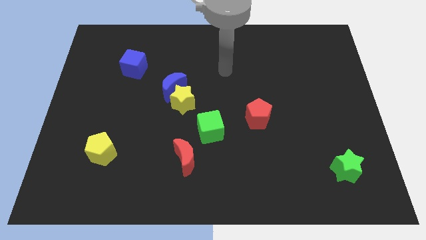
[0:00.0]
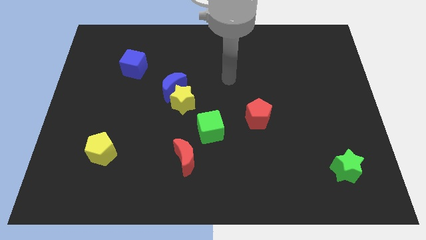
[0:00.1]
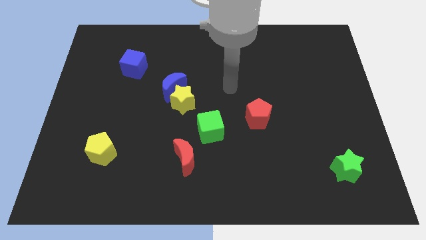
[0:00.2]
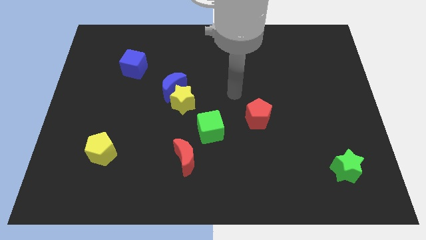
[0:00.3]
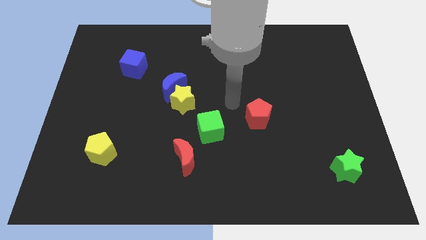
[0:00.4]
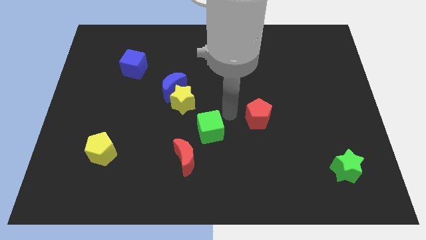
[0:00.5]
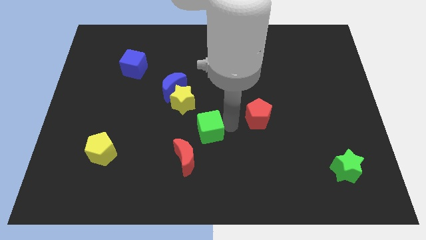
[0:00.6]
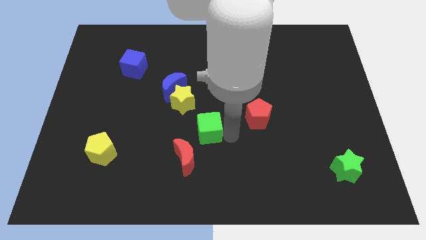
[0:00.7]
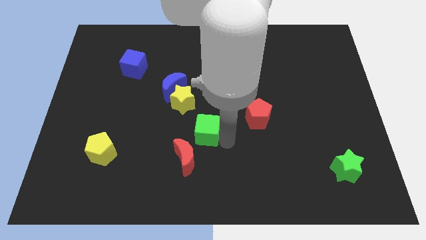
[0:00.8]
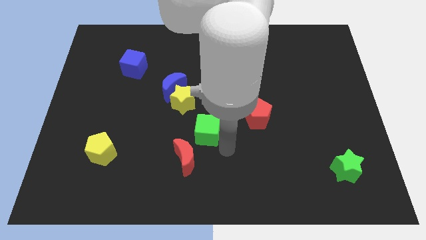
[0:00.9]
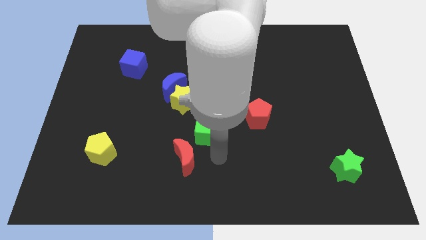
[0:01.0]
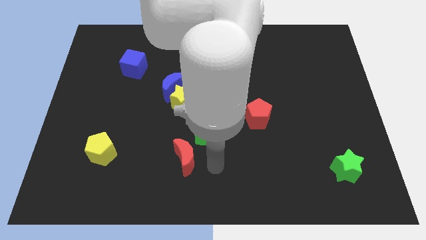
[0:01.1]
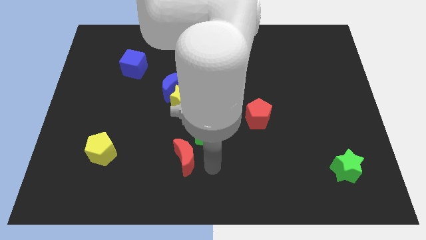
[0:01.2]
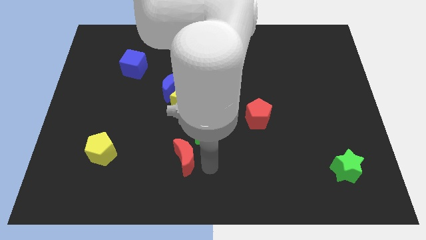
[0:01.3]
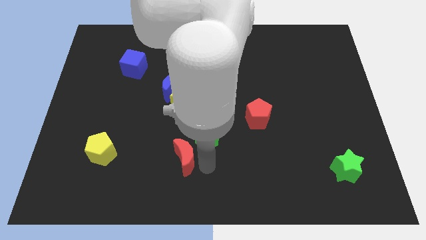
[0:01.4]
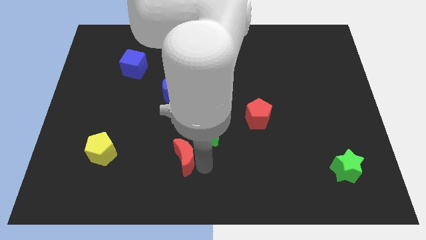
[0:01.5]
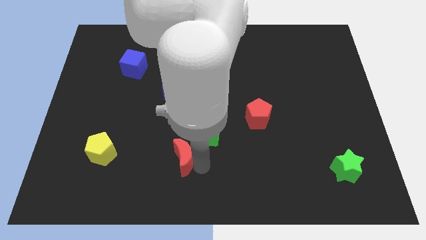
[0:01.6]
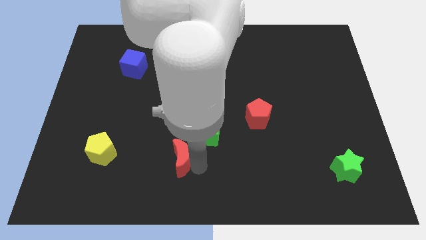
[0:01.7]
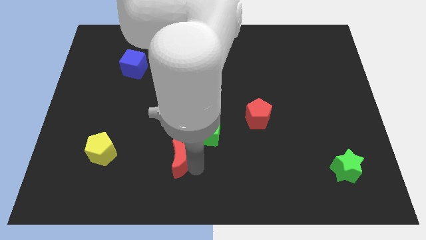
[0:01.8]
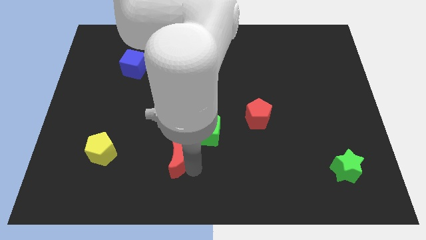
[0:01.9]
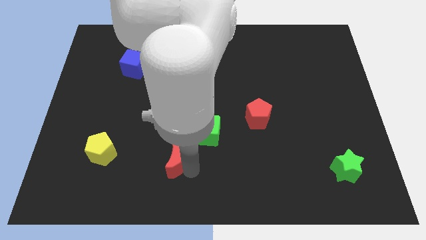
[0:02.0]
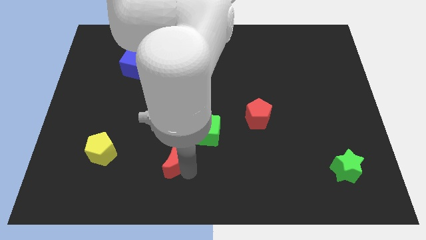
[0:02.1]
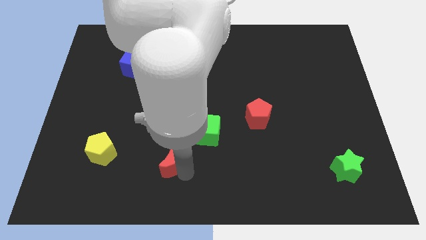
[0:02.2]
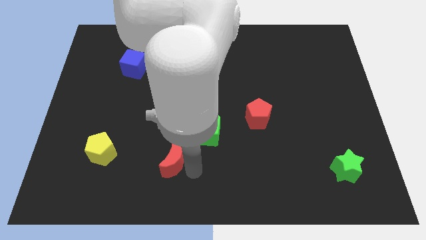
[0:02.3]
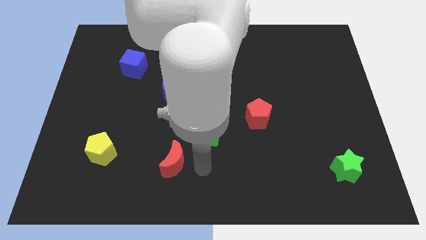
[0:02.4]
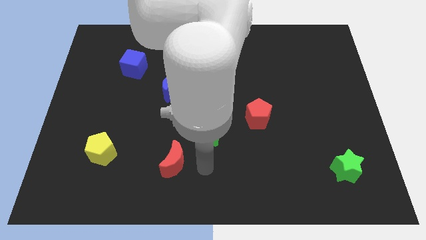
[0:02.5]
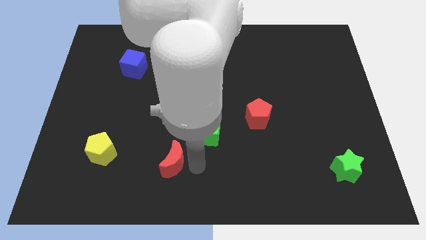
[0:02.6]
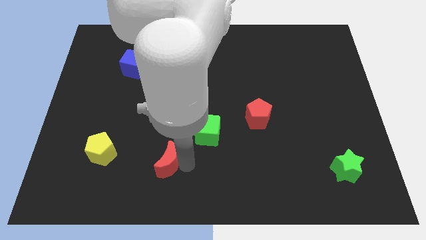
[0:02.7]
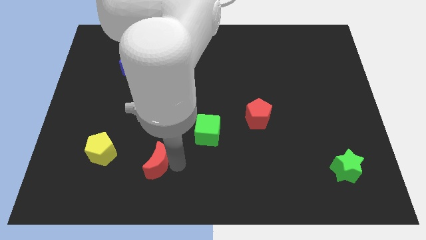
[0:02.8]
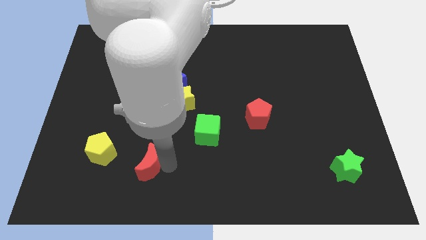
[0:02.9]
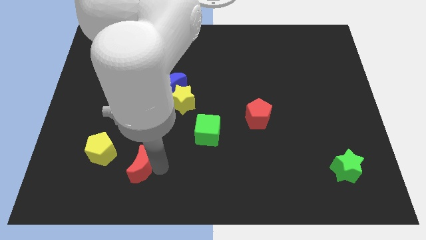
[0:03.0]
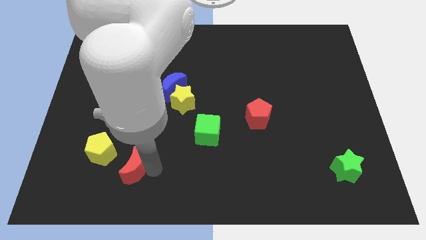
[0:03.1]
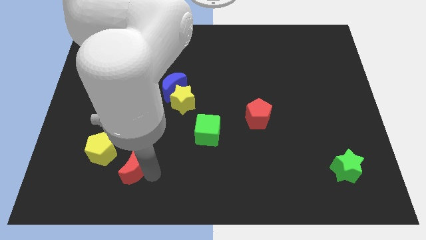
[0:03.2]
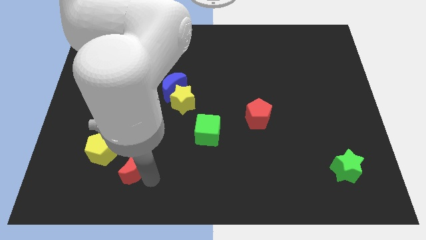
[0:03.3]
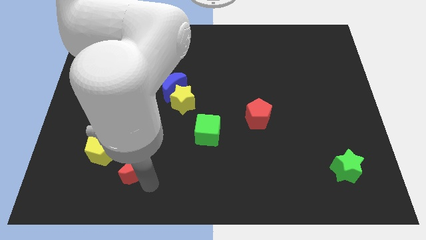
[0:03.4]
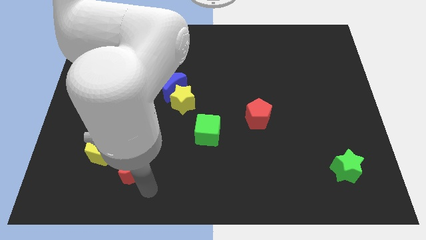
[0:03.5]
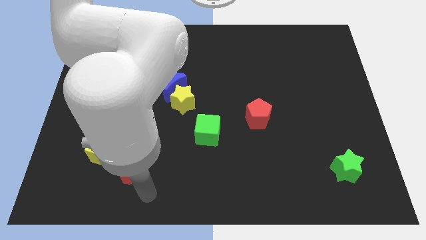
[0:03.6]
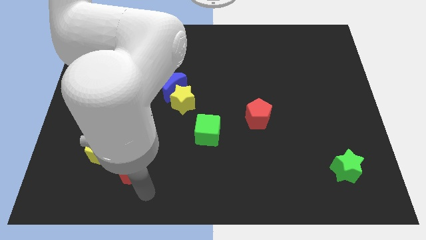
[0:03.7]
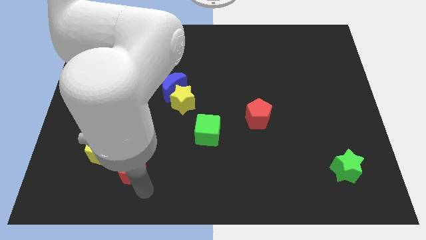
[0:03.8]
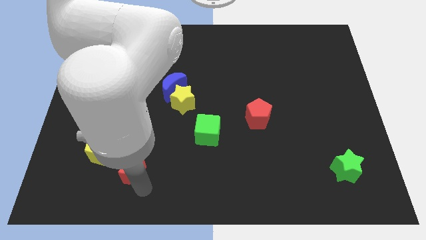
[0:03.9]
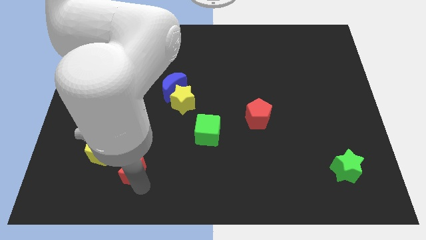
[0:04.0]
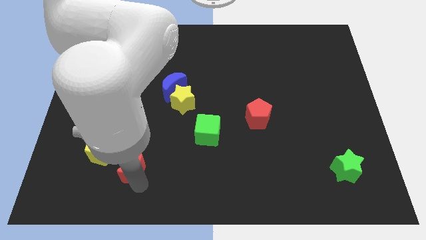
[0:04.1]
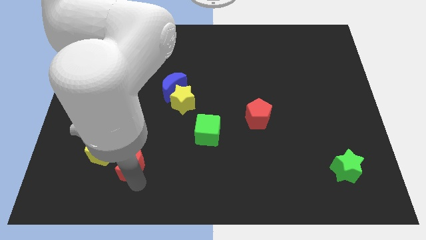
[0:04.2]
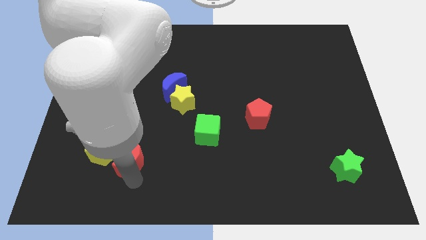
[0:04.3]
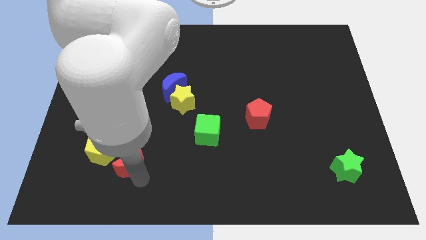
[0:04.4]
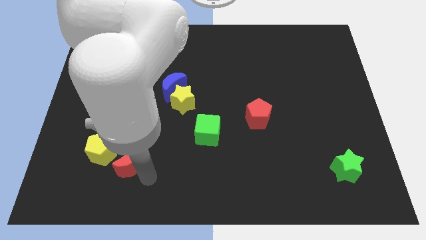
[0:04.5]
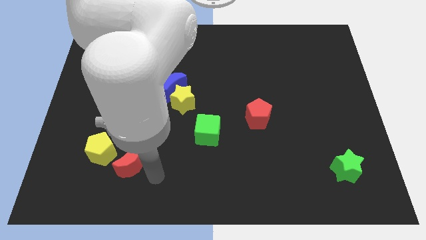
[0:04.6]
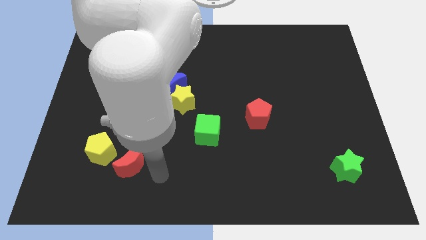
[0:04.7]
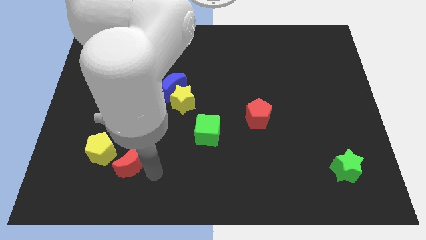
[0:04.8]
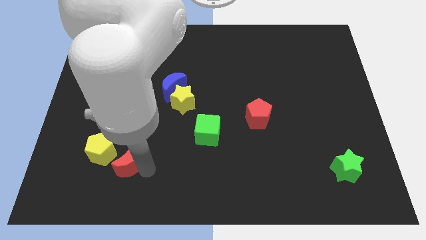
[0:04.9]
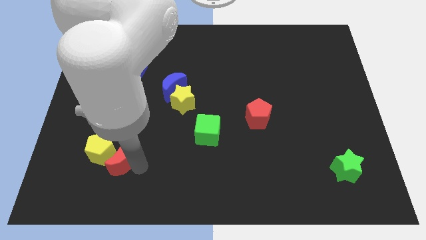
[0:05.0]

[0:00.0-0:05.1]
move the red moon towards the yellow pentagon

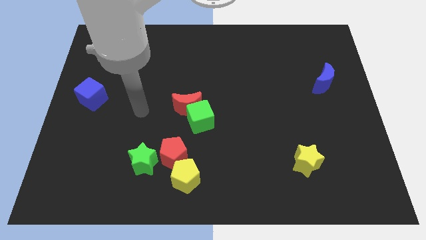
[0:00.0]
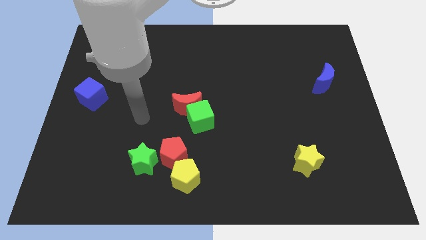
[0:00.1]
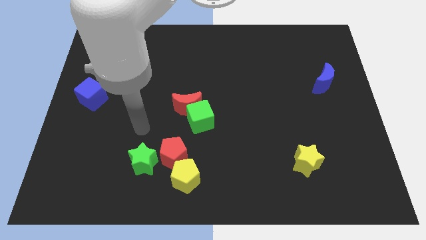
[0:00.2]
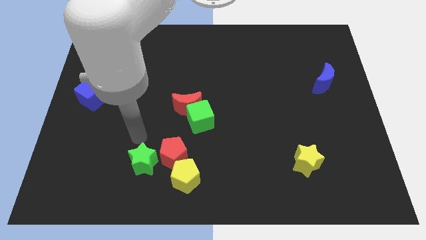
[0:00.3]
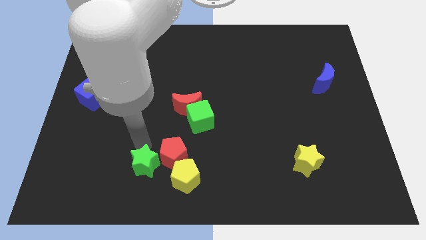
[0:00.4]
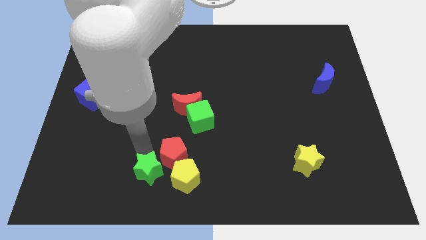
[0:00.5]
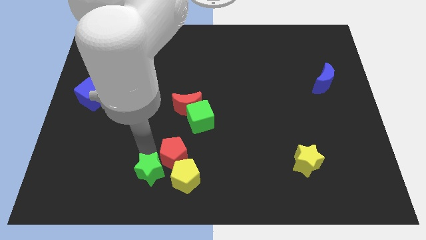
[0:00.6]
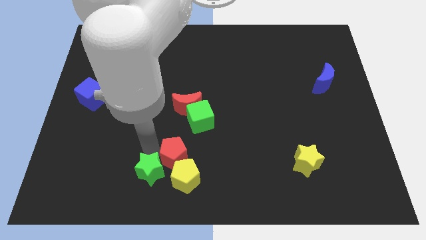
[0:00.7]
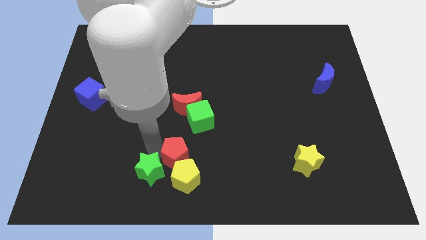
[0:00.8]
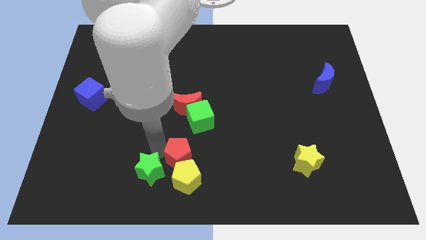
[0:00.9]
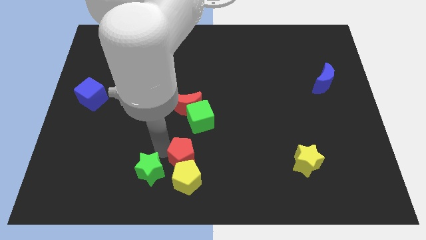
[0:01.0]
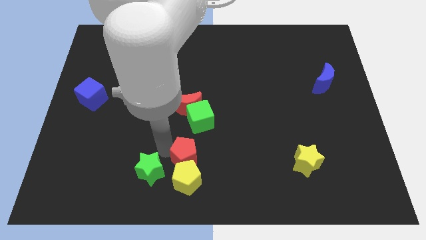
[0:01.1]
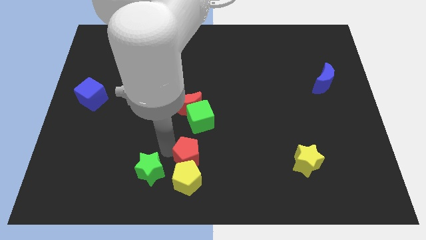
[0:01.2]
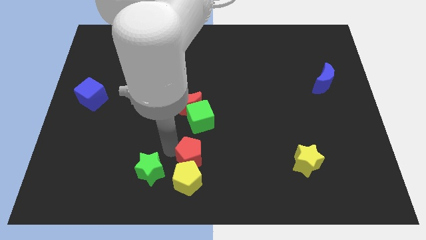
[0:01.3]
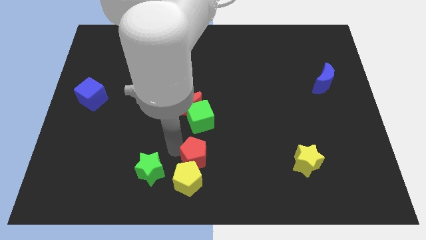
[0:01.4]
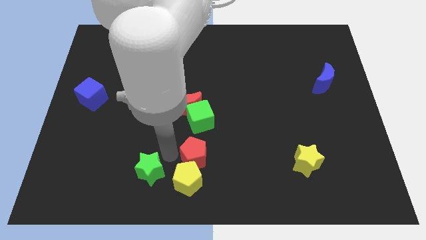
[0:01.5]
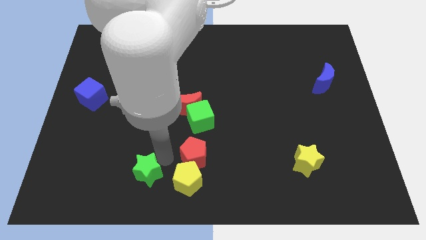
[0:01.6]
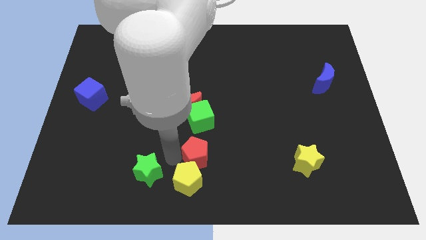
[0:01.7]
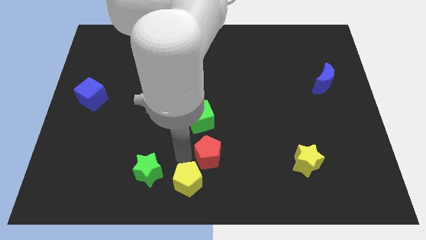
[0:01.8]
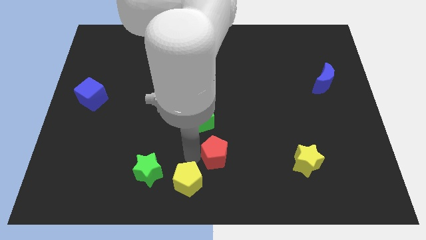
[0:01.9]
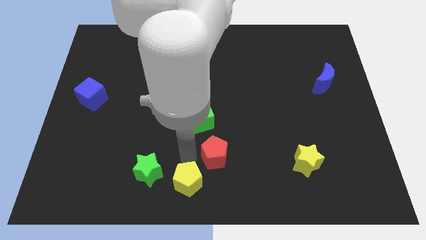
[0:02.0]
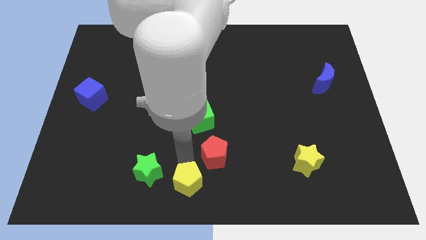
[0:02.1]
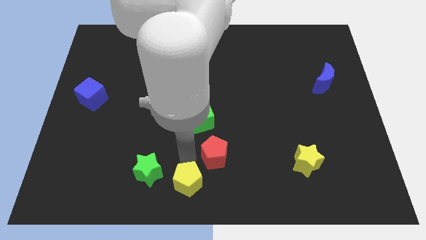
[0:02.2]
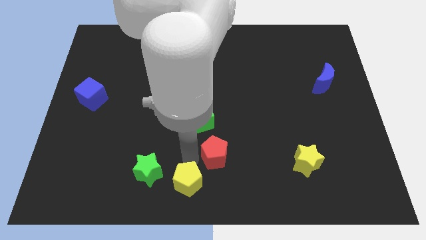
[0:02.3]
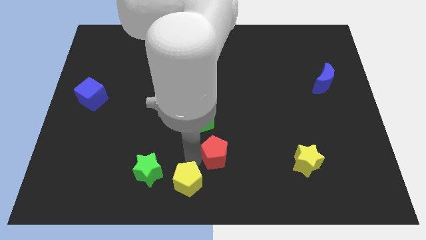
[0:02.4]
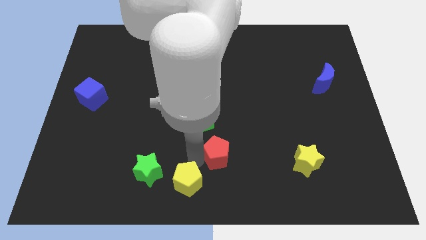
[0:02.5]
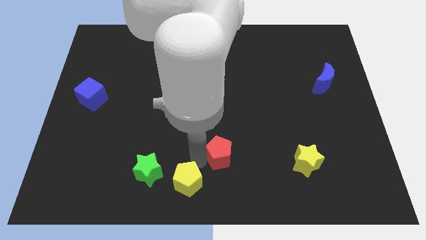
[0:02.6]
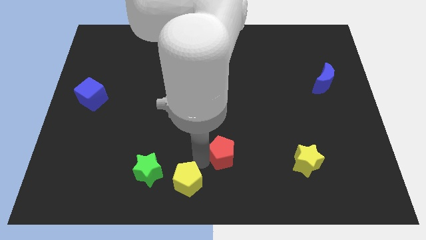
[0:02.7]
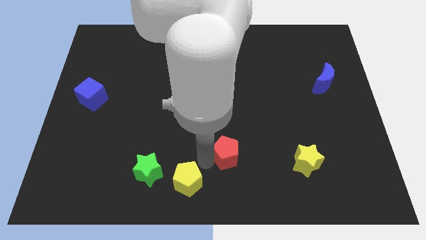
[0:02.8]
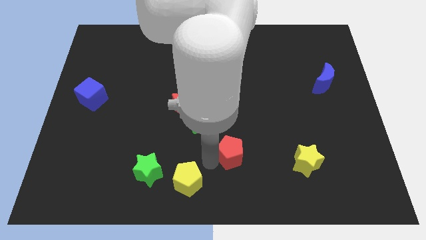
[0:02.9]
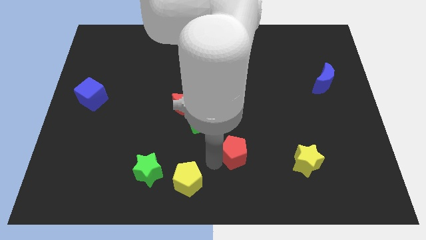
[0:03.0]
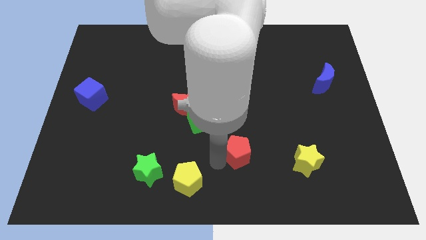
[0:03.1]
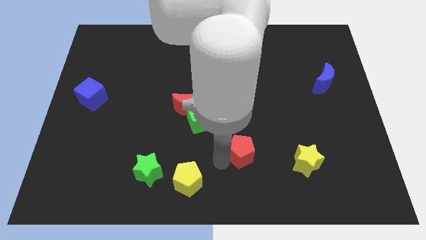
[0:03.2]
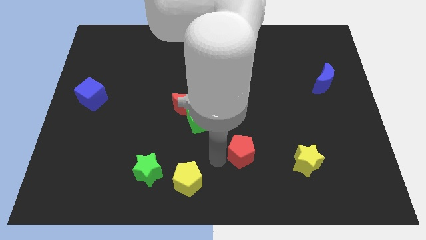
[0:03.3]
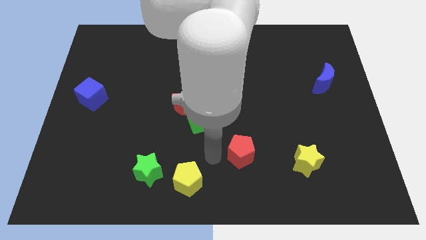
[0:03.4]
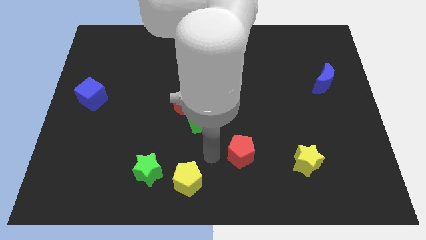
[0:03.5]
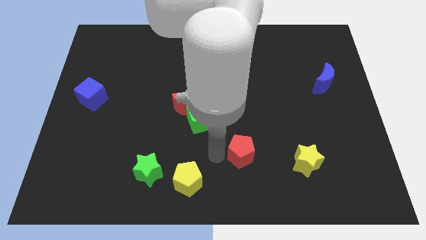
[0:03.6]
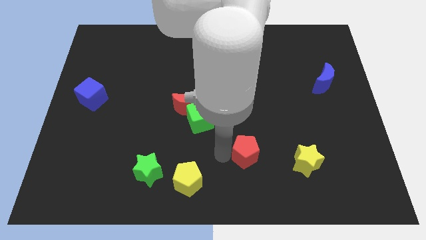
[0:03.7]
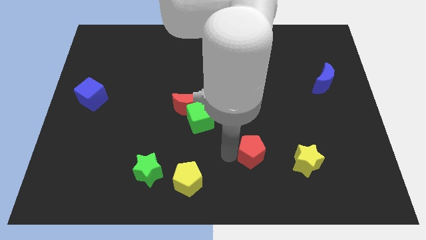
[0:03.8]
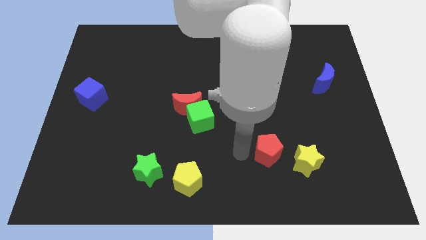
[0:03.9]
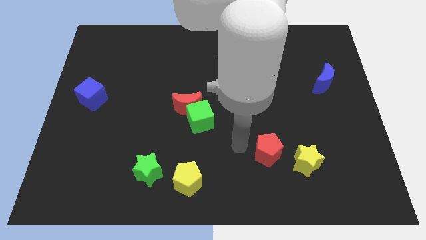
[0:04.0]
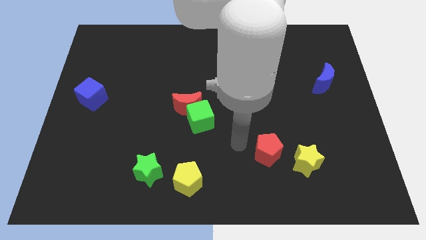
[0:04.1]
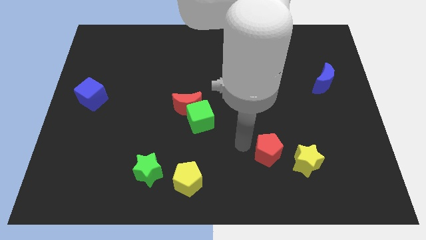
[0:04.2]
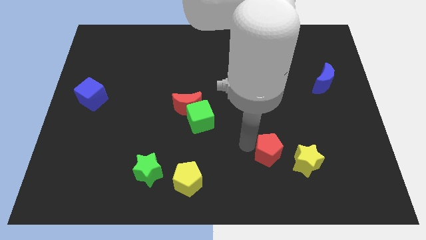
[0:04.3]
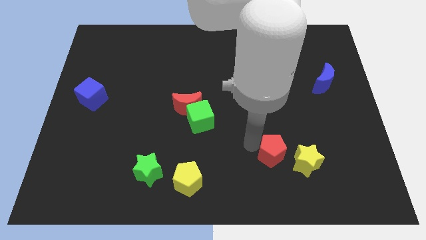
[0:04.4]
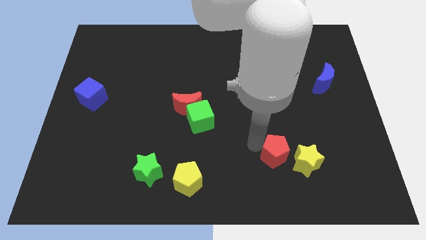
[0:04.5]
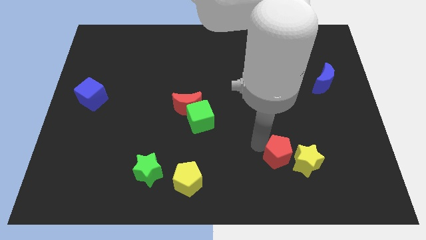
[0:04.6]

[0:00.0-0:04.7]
move the red pentagon to the yellow star
